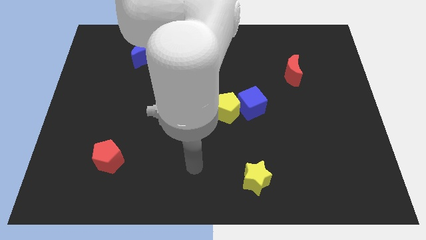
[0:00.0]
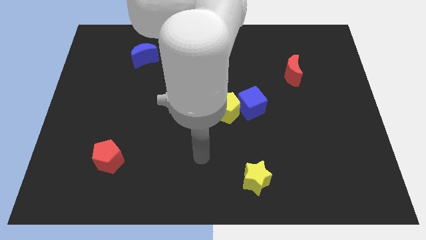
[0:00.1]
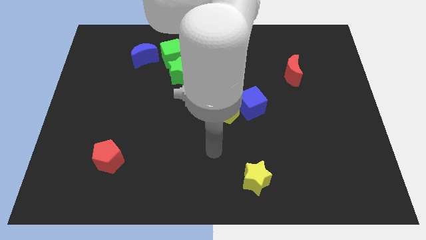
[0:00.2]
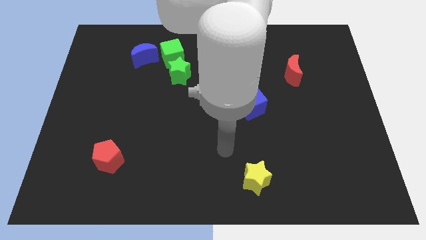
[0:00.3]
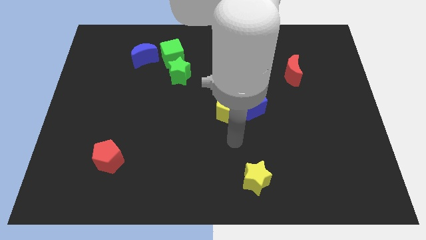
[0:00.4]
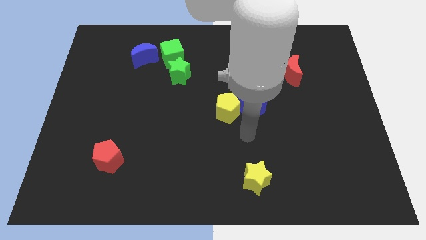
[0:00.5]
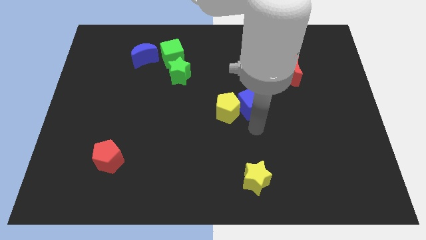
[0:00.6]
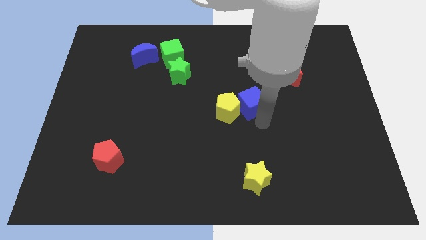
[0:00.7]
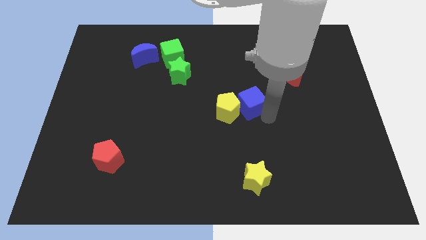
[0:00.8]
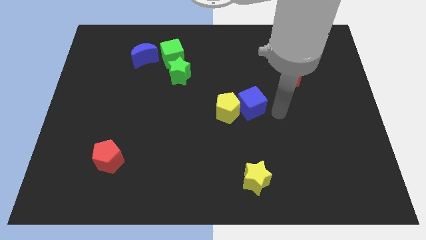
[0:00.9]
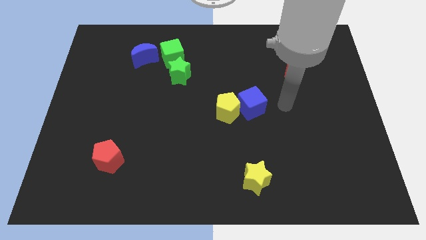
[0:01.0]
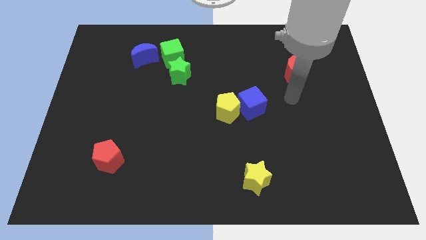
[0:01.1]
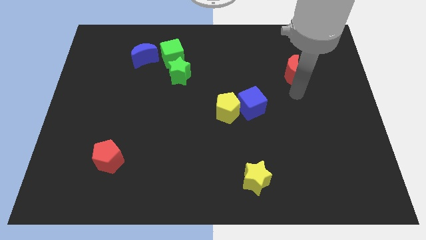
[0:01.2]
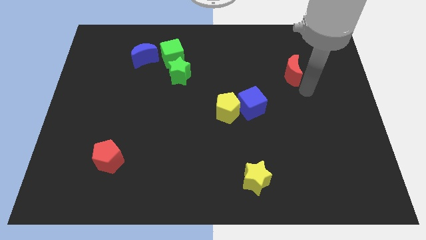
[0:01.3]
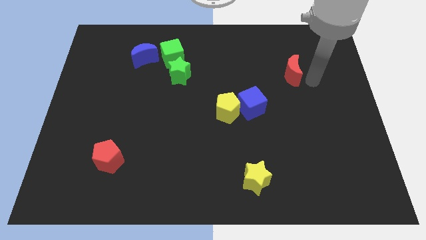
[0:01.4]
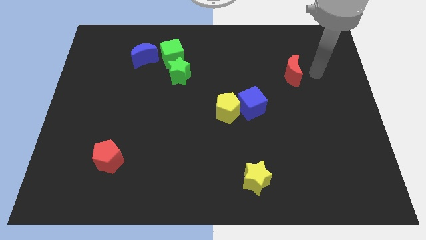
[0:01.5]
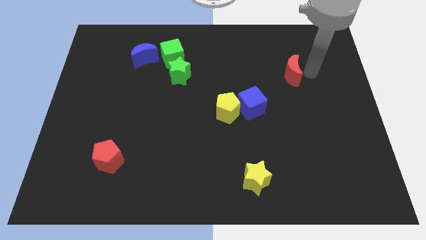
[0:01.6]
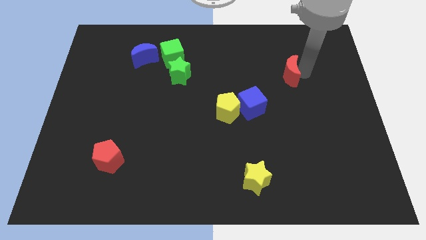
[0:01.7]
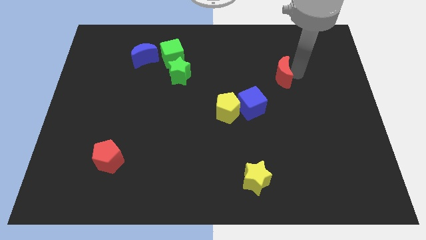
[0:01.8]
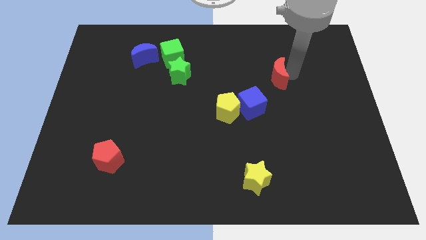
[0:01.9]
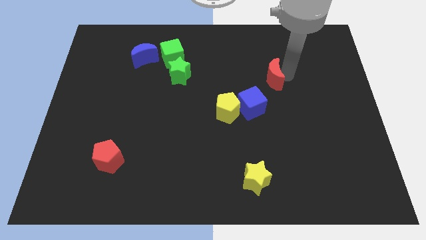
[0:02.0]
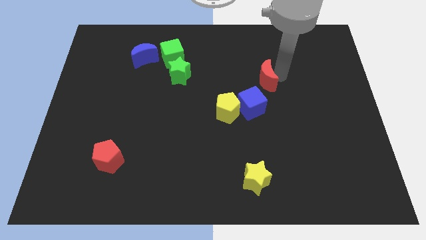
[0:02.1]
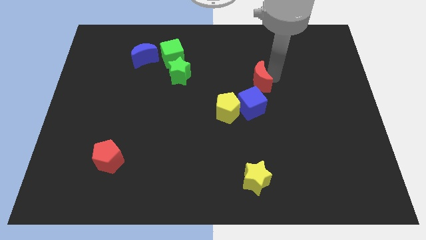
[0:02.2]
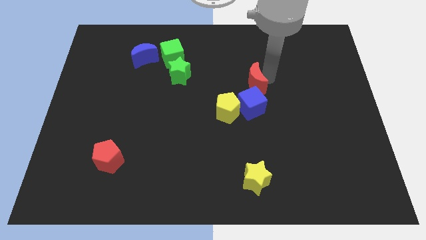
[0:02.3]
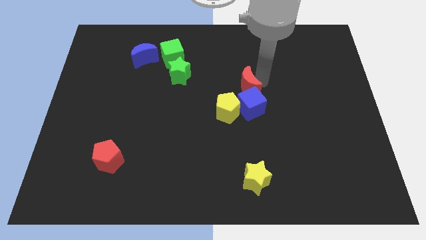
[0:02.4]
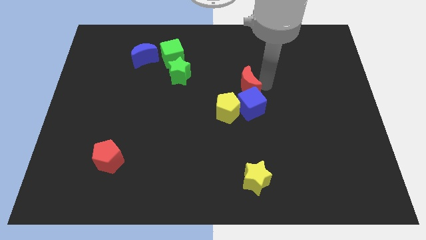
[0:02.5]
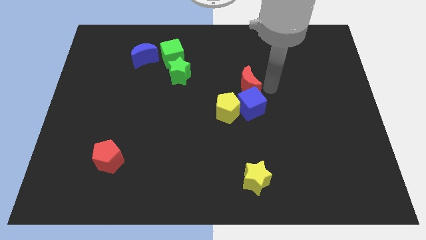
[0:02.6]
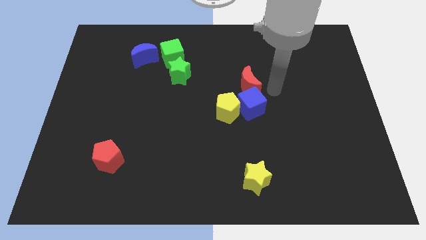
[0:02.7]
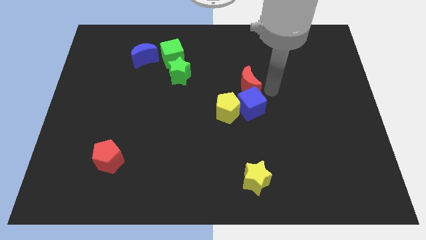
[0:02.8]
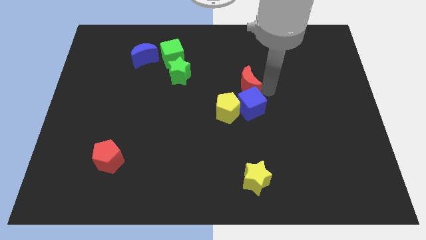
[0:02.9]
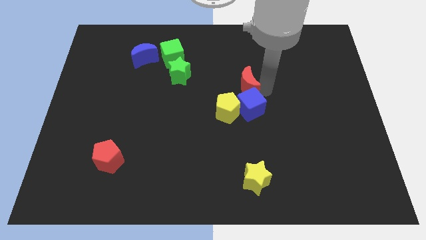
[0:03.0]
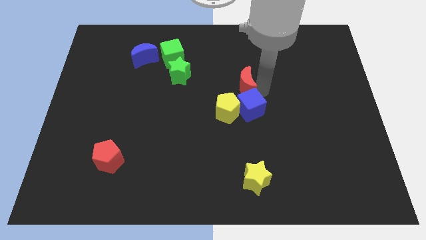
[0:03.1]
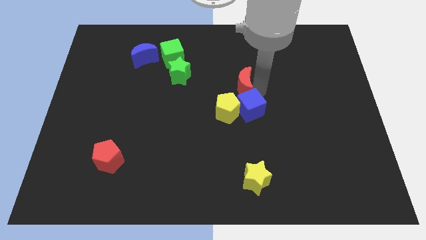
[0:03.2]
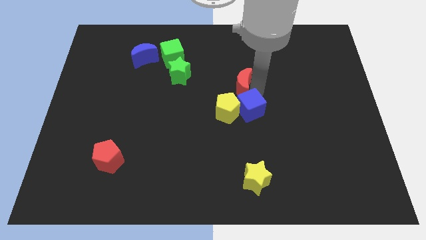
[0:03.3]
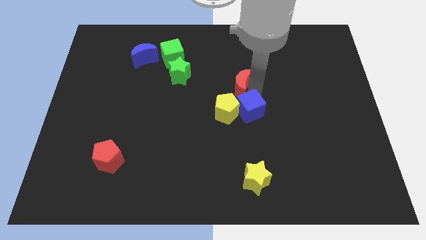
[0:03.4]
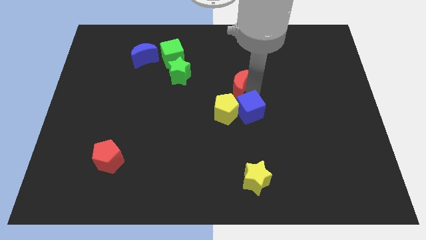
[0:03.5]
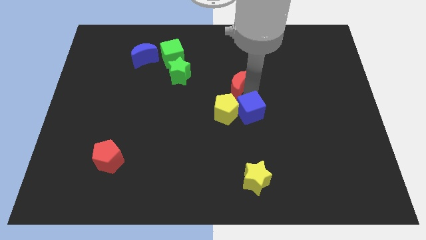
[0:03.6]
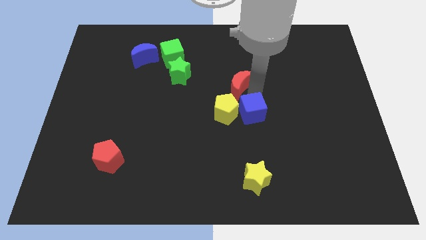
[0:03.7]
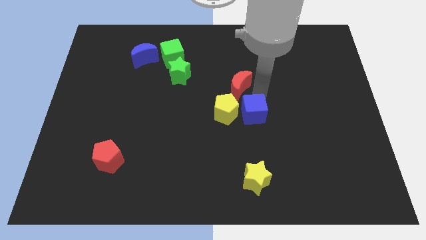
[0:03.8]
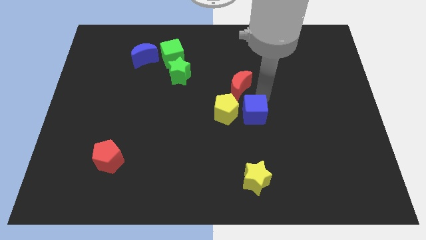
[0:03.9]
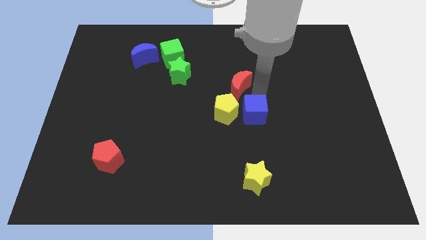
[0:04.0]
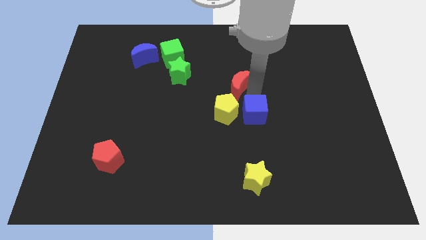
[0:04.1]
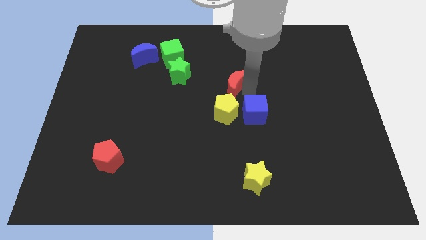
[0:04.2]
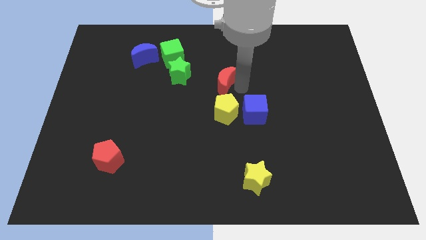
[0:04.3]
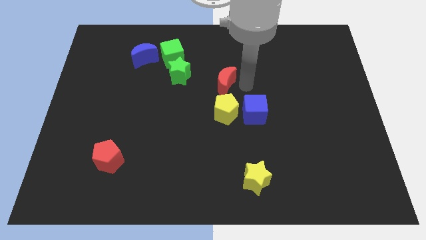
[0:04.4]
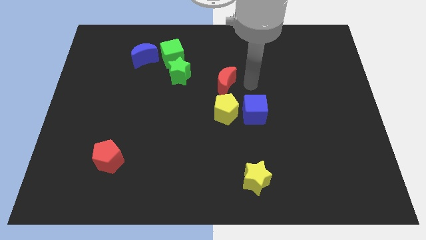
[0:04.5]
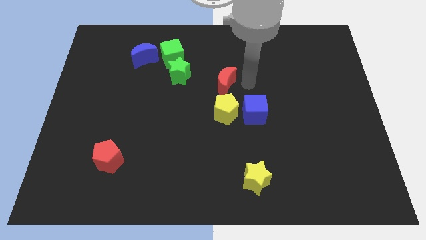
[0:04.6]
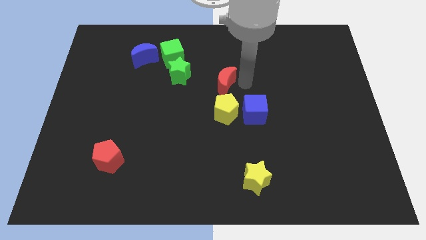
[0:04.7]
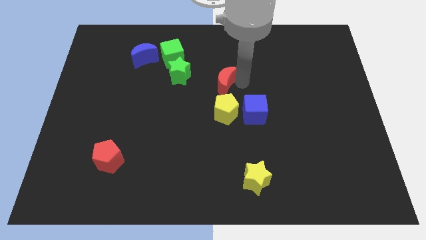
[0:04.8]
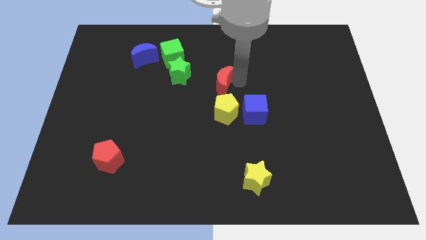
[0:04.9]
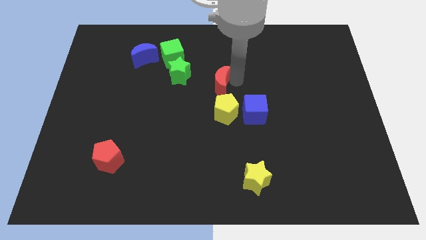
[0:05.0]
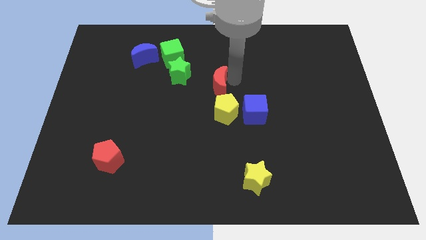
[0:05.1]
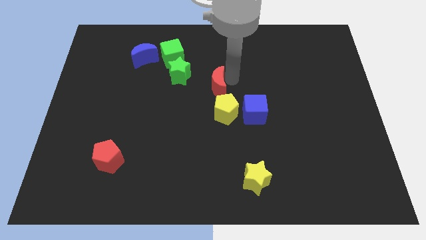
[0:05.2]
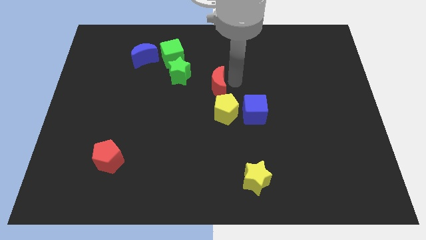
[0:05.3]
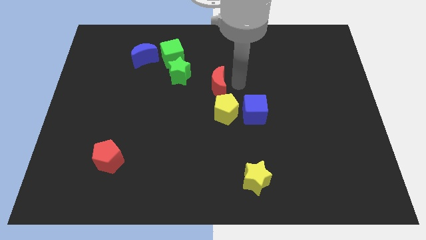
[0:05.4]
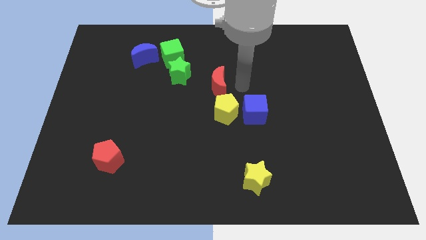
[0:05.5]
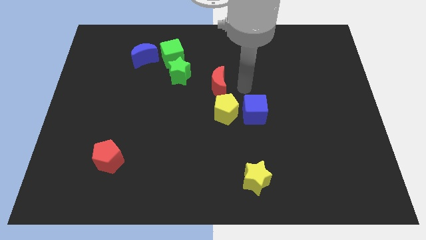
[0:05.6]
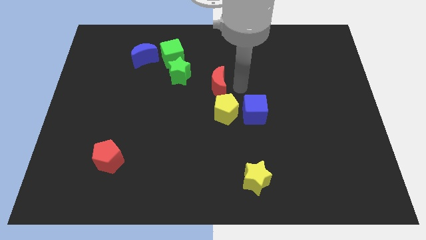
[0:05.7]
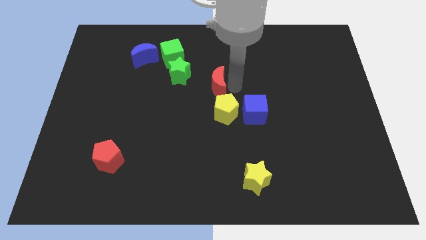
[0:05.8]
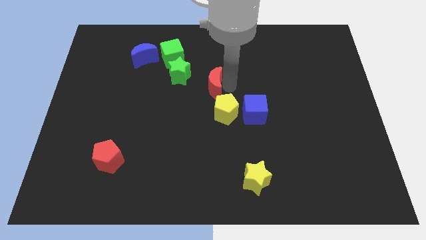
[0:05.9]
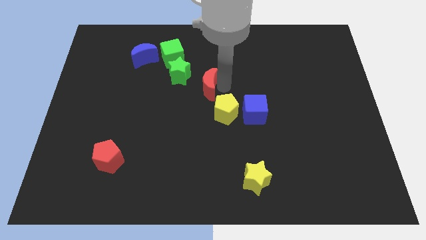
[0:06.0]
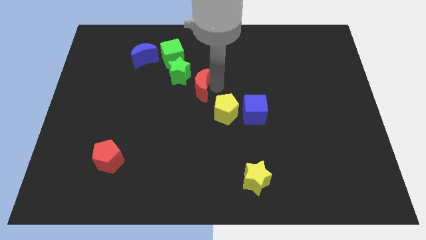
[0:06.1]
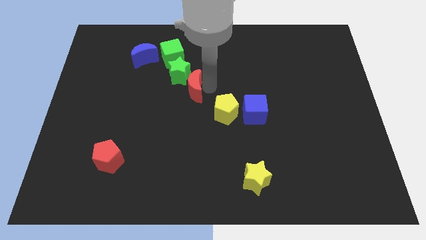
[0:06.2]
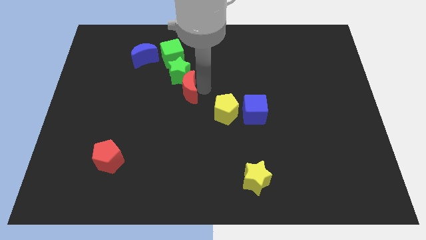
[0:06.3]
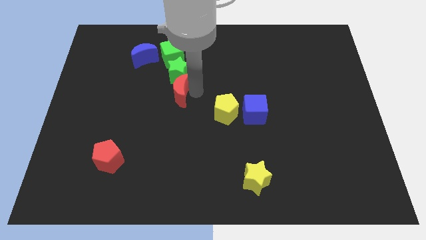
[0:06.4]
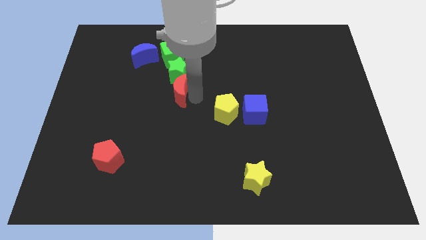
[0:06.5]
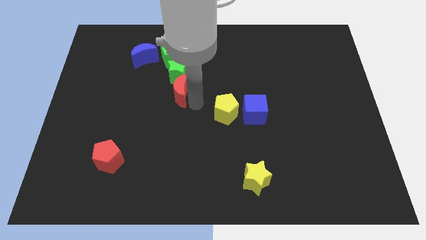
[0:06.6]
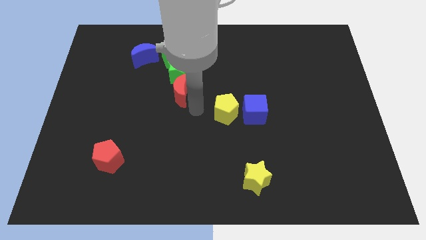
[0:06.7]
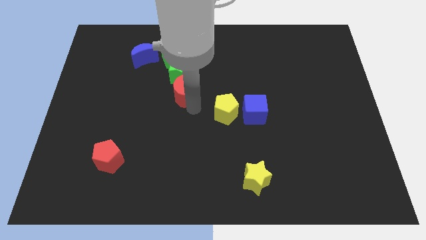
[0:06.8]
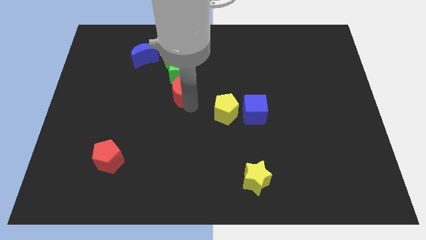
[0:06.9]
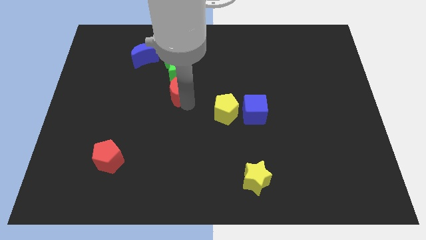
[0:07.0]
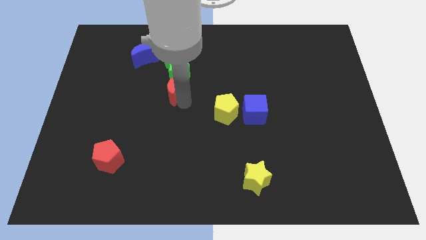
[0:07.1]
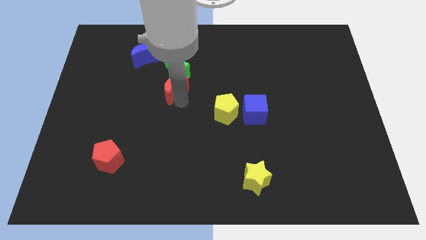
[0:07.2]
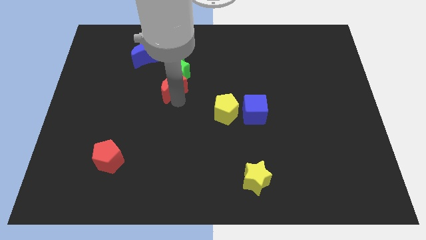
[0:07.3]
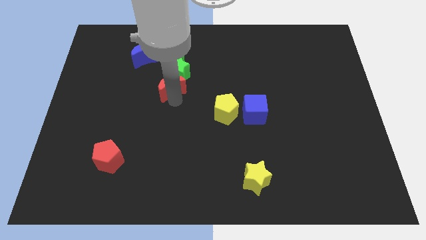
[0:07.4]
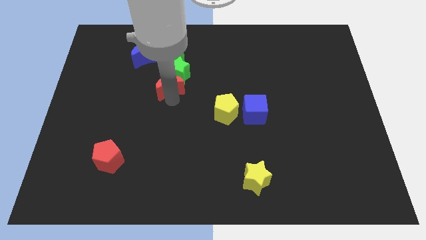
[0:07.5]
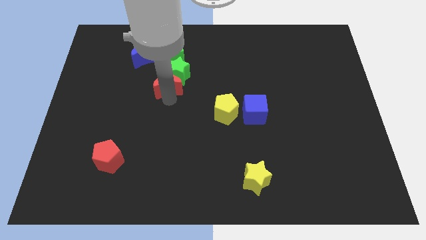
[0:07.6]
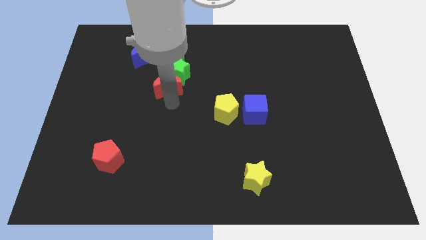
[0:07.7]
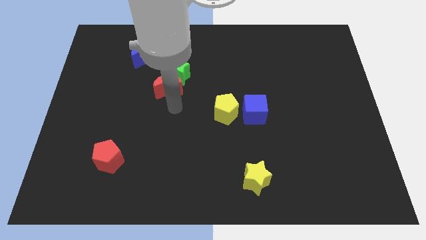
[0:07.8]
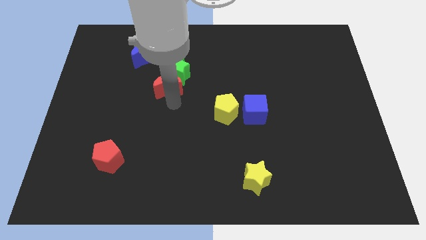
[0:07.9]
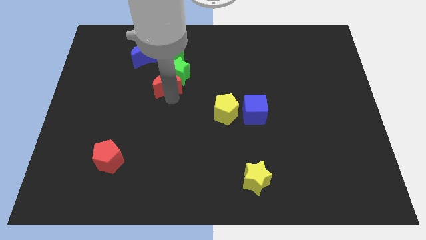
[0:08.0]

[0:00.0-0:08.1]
push the red moon diagonally down and to the right of the blue moon
